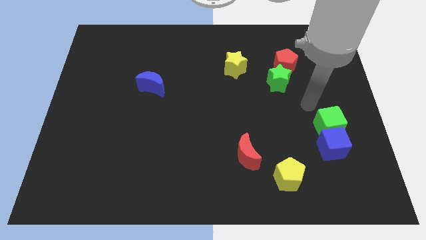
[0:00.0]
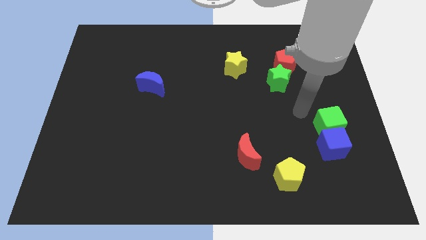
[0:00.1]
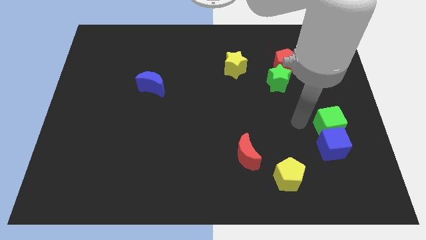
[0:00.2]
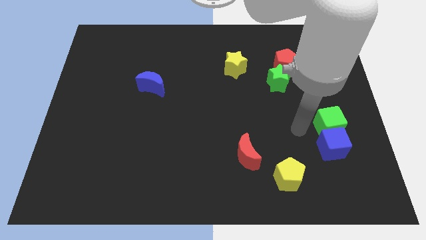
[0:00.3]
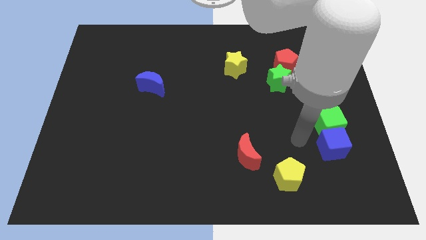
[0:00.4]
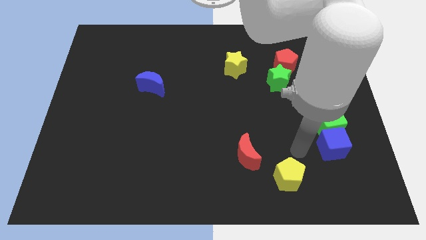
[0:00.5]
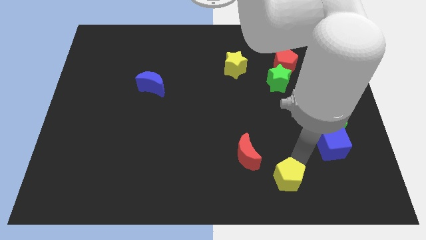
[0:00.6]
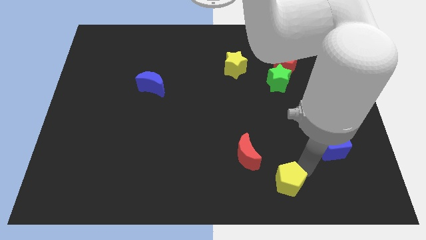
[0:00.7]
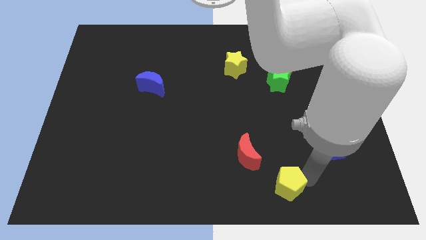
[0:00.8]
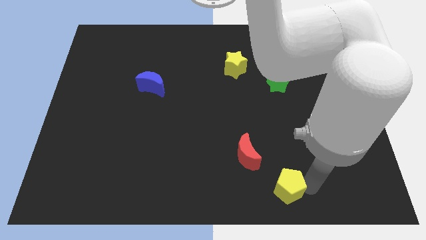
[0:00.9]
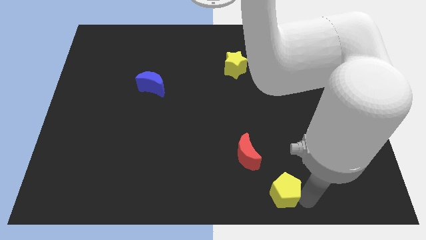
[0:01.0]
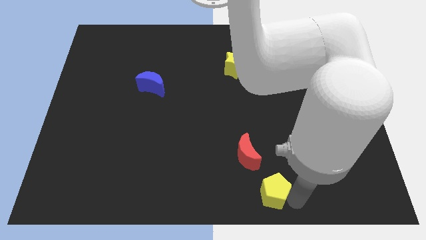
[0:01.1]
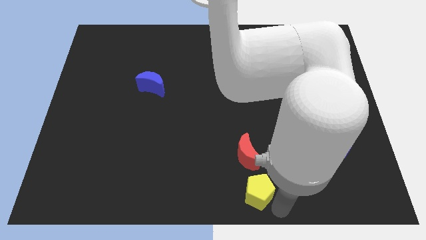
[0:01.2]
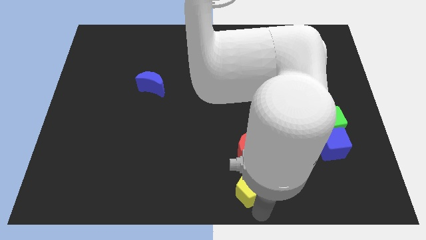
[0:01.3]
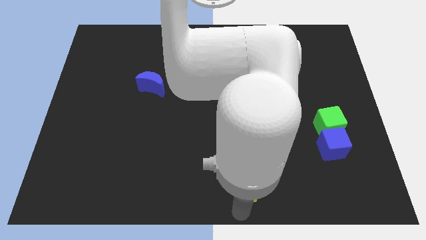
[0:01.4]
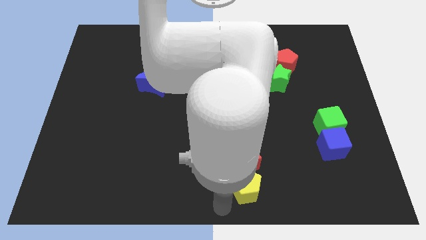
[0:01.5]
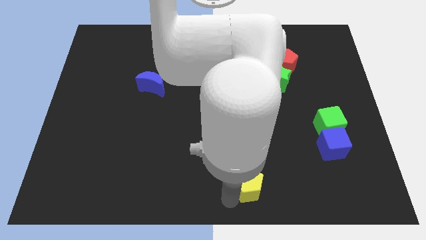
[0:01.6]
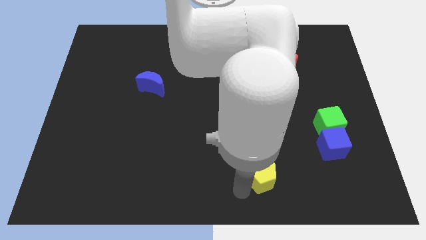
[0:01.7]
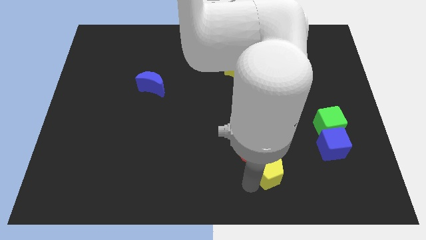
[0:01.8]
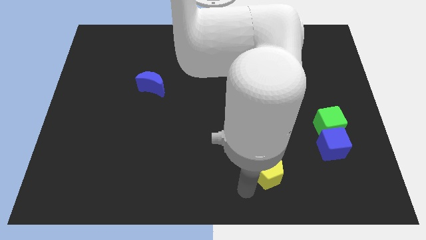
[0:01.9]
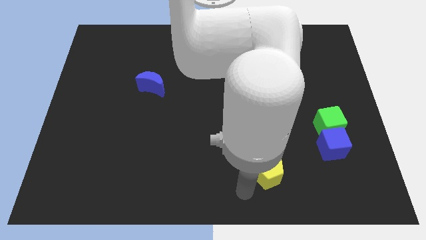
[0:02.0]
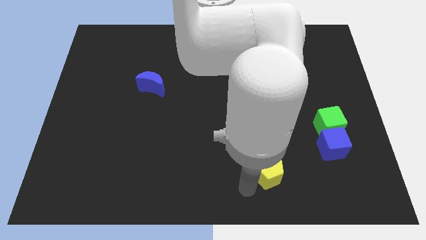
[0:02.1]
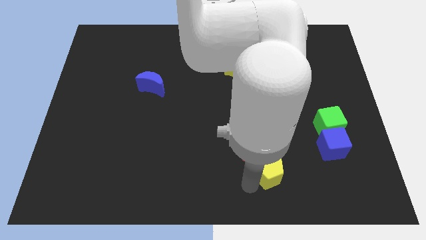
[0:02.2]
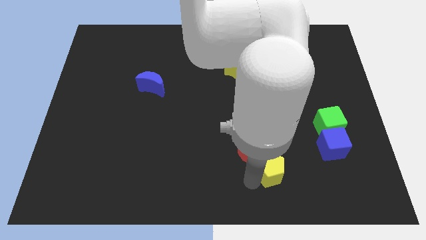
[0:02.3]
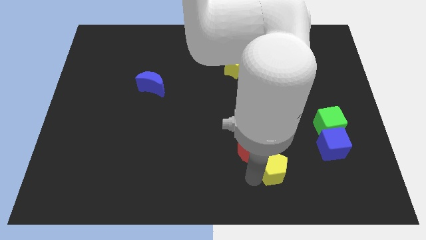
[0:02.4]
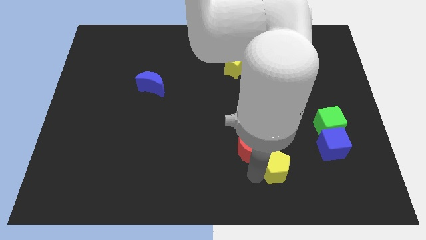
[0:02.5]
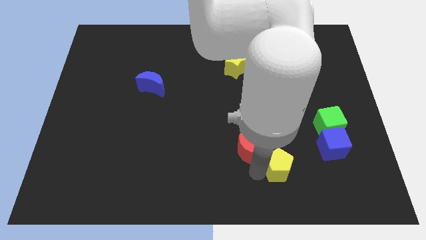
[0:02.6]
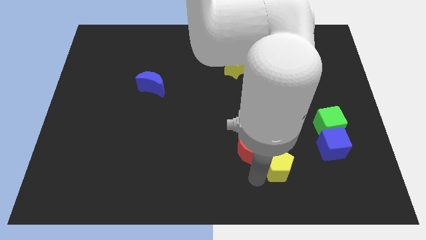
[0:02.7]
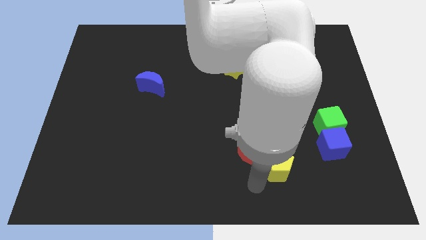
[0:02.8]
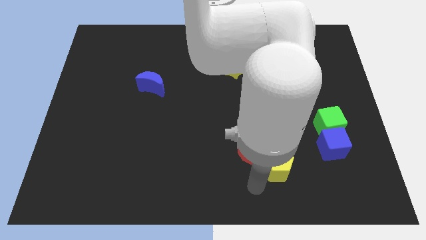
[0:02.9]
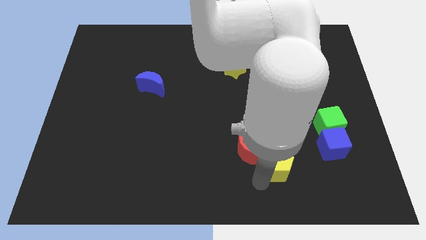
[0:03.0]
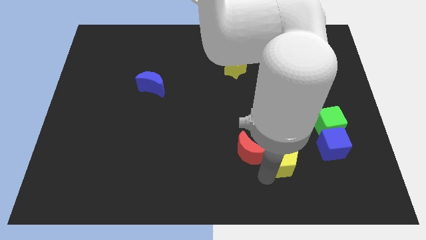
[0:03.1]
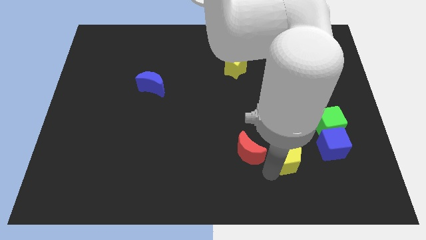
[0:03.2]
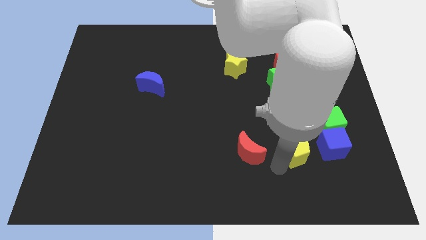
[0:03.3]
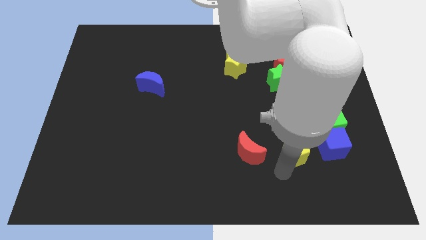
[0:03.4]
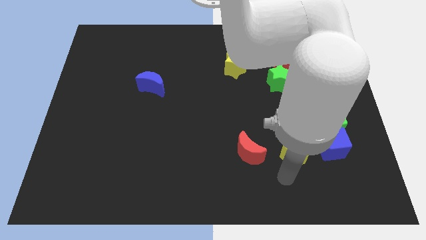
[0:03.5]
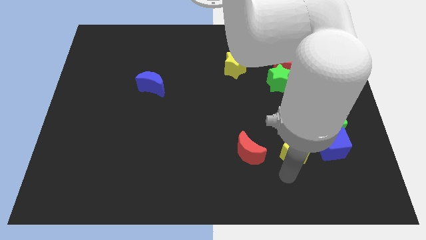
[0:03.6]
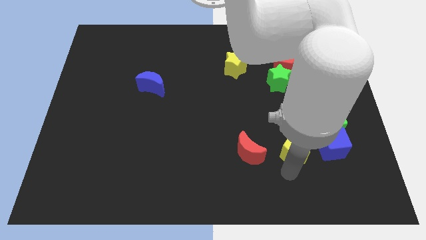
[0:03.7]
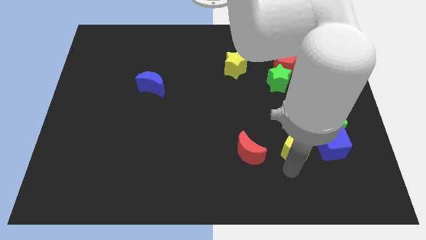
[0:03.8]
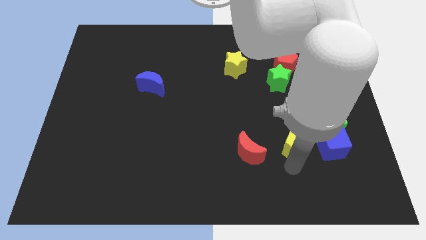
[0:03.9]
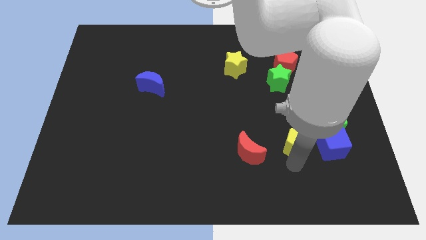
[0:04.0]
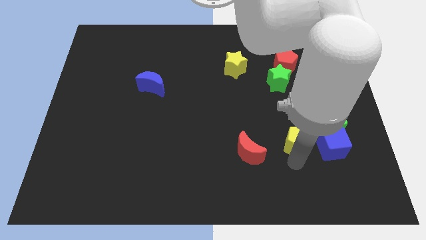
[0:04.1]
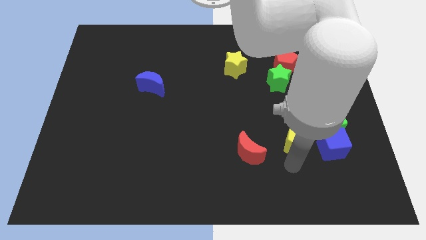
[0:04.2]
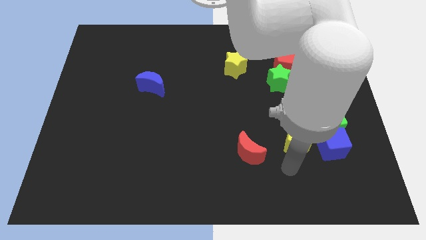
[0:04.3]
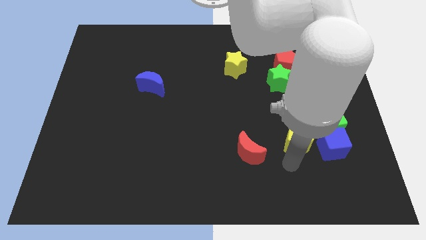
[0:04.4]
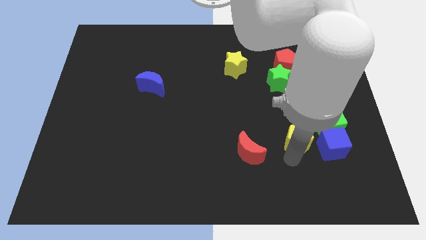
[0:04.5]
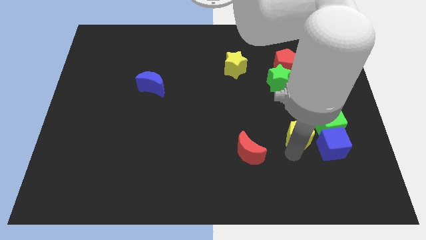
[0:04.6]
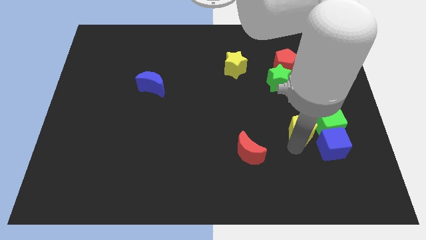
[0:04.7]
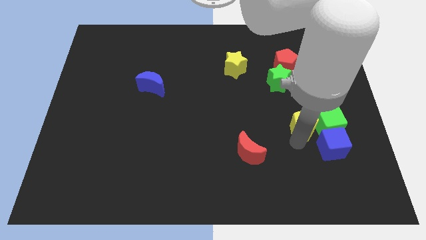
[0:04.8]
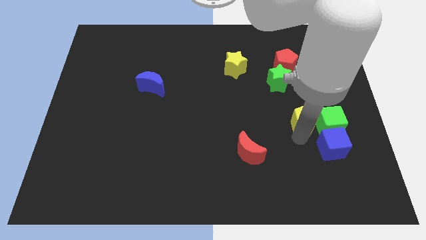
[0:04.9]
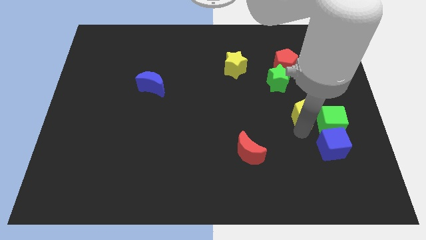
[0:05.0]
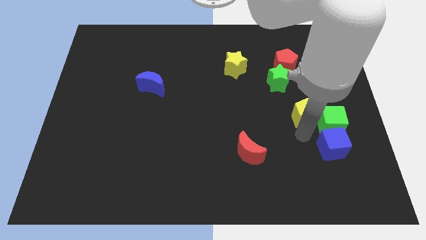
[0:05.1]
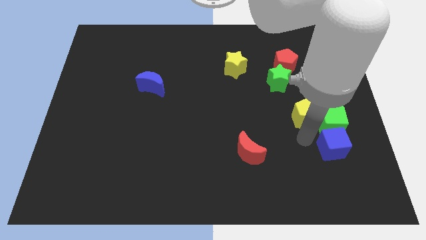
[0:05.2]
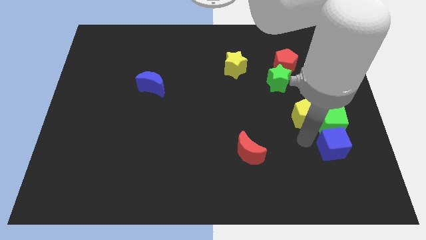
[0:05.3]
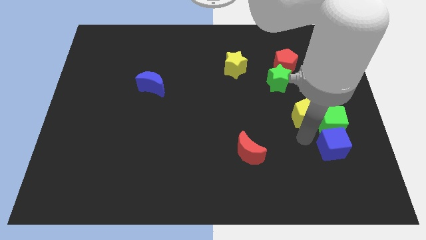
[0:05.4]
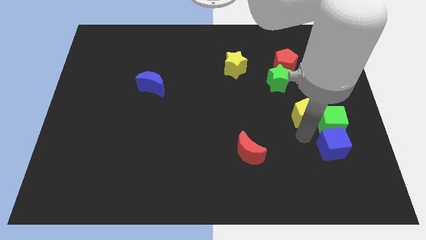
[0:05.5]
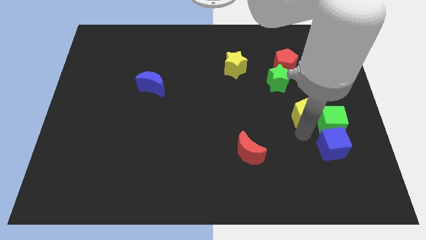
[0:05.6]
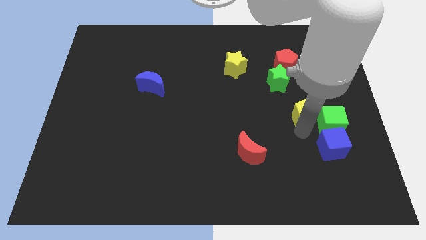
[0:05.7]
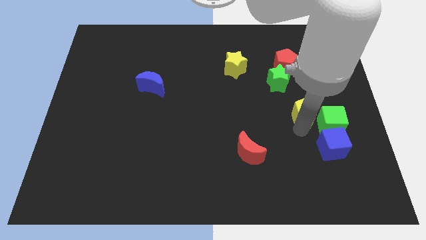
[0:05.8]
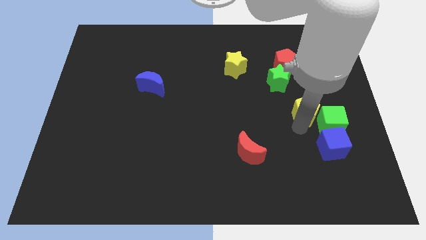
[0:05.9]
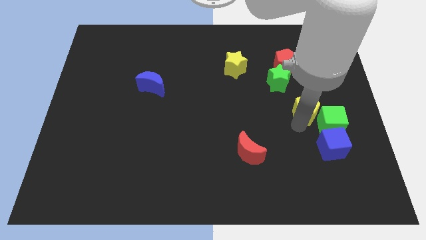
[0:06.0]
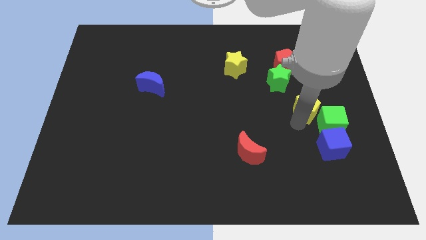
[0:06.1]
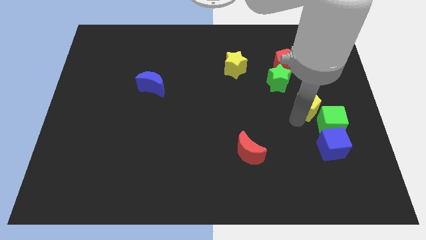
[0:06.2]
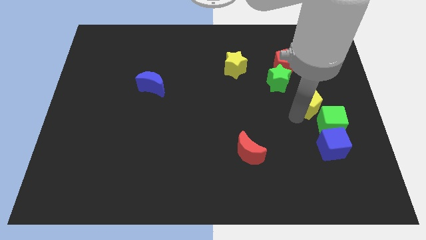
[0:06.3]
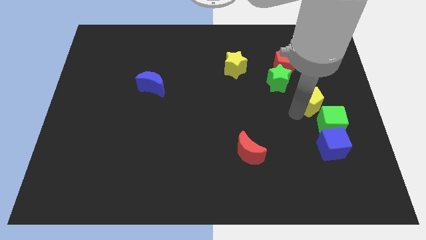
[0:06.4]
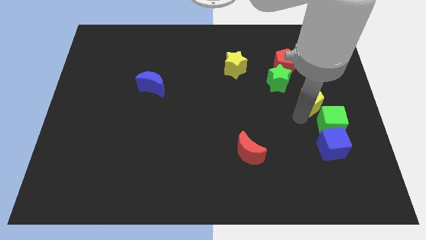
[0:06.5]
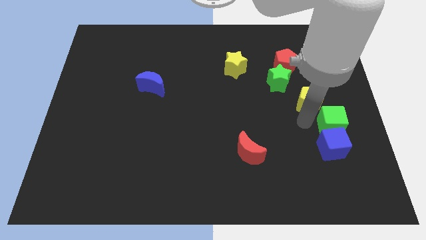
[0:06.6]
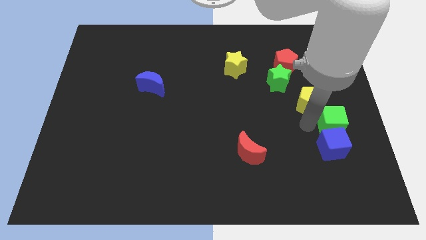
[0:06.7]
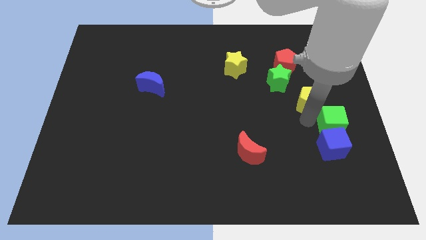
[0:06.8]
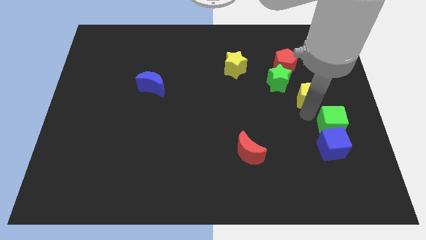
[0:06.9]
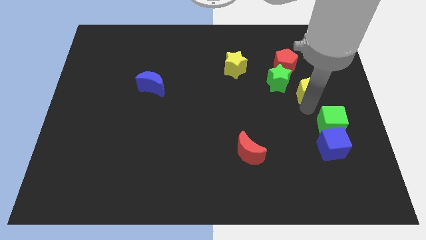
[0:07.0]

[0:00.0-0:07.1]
slide the yellow pentagon diagonally down and to the right of the red pentagon

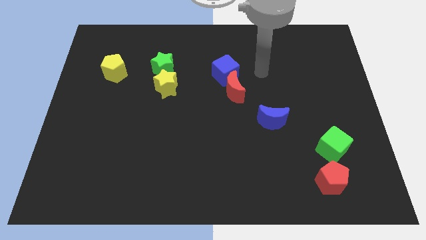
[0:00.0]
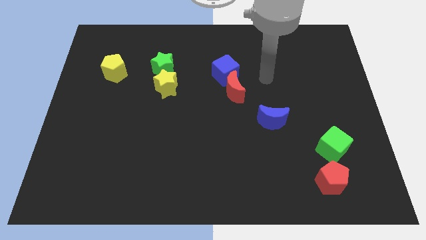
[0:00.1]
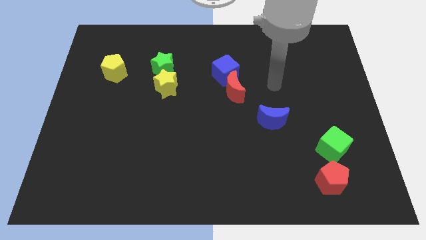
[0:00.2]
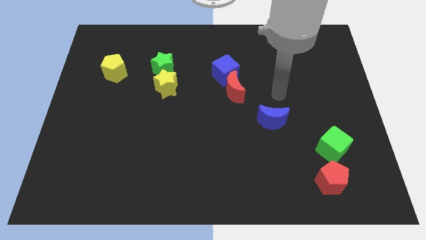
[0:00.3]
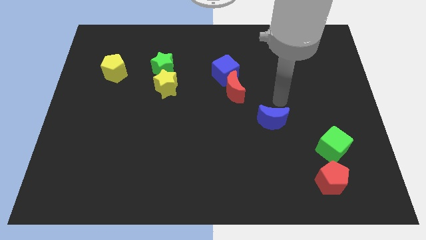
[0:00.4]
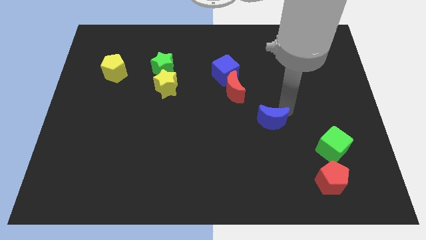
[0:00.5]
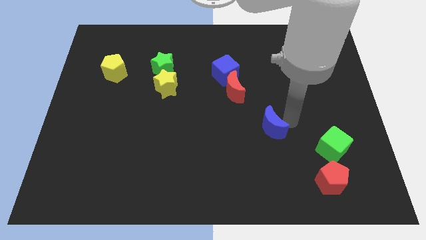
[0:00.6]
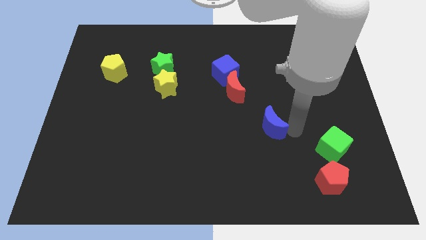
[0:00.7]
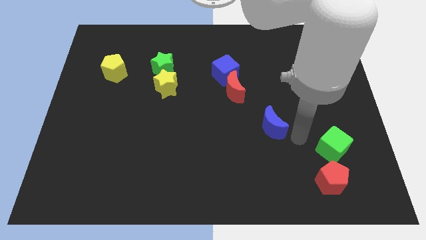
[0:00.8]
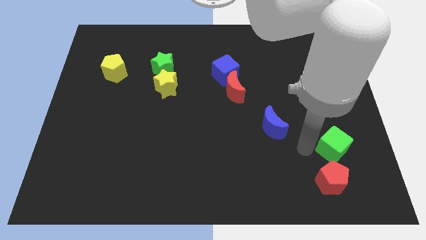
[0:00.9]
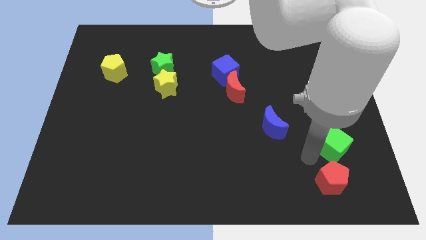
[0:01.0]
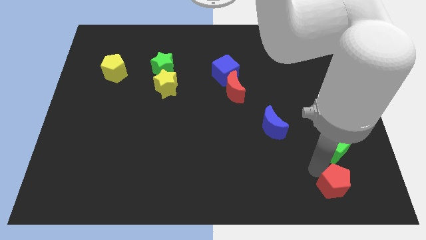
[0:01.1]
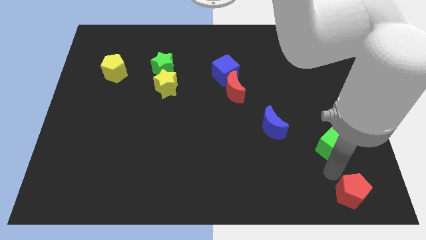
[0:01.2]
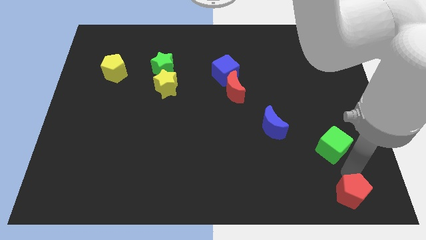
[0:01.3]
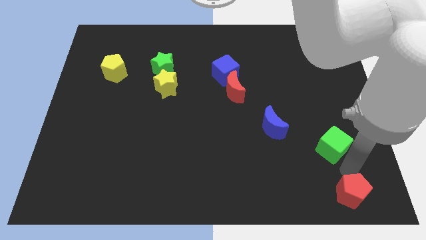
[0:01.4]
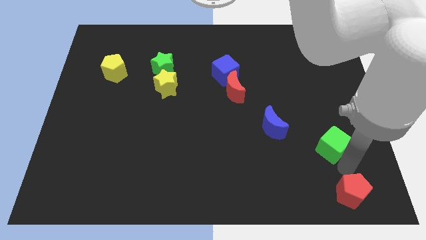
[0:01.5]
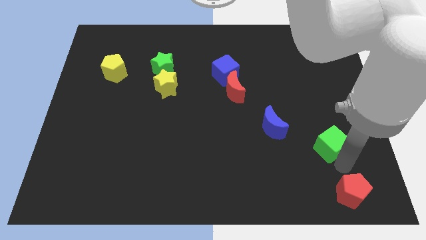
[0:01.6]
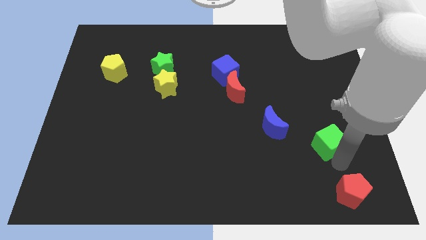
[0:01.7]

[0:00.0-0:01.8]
put the green cube to the right side of the blue moon
